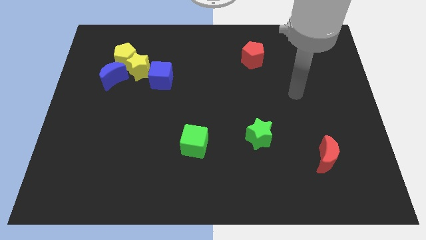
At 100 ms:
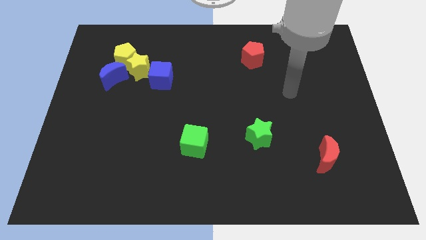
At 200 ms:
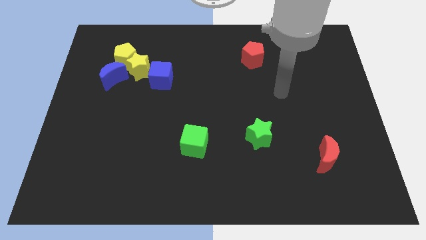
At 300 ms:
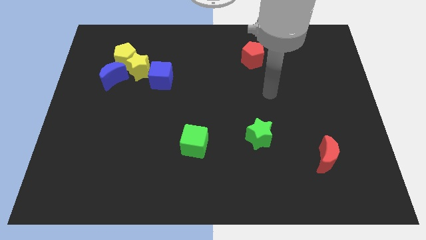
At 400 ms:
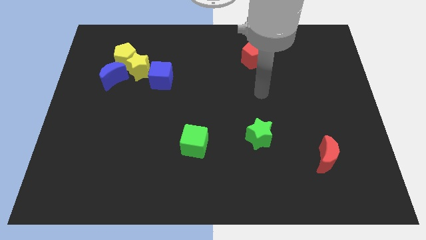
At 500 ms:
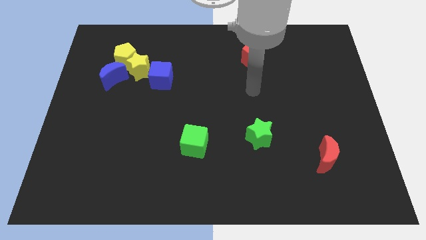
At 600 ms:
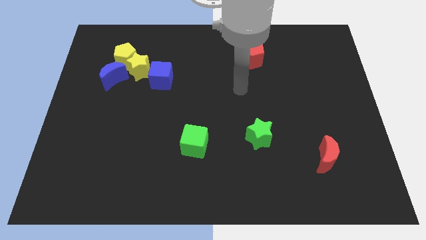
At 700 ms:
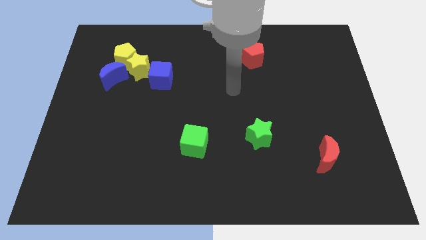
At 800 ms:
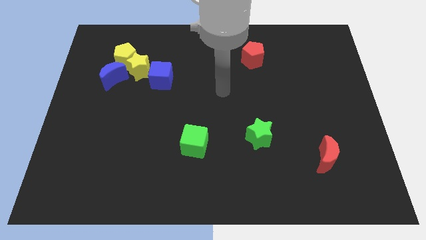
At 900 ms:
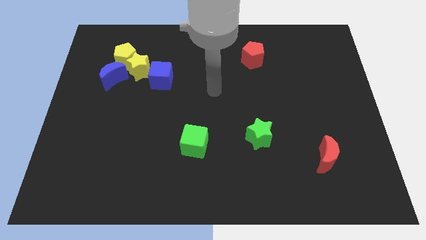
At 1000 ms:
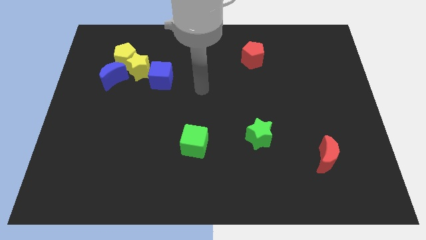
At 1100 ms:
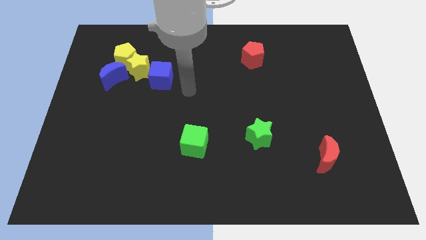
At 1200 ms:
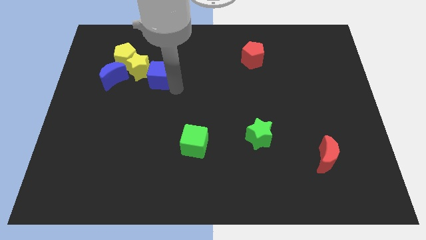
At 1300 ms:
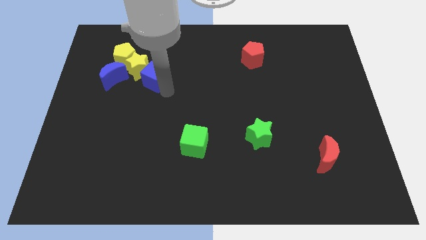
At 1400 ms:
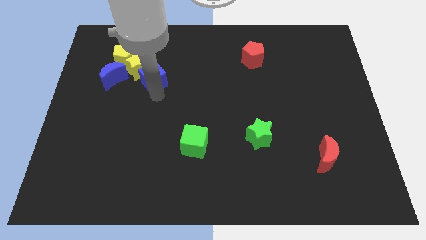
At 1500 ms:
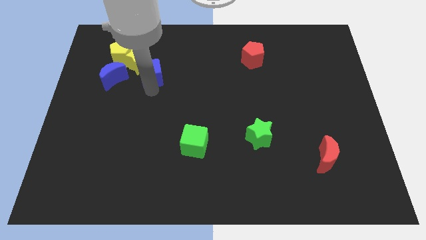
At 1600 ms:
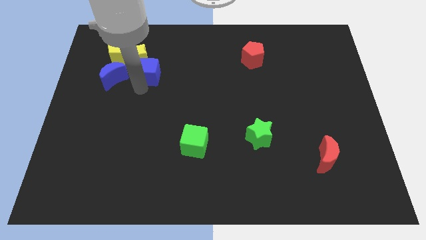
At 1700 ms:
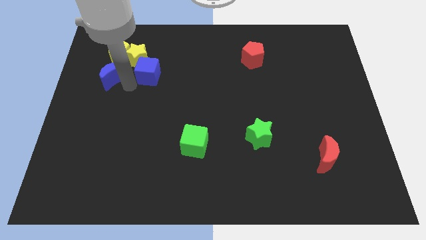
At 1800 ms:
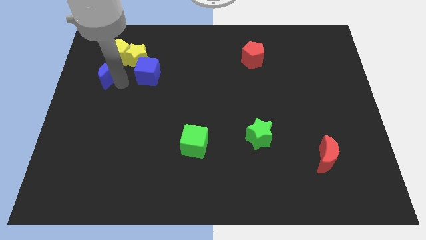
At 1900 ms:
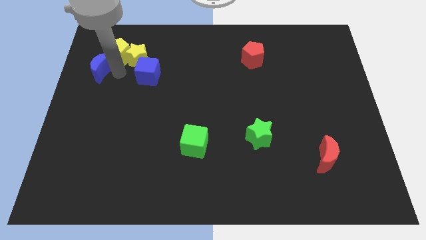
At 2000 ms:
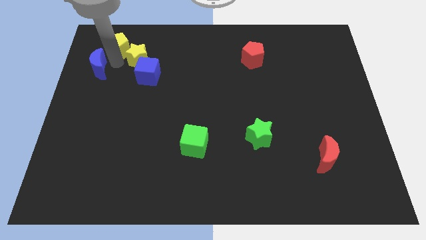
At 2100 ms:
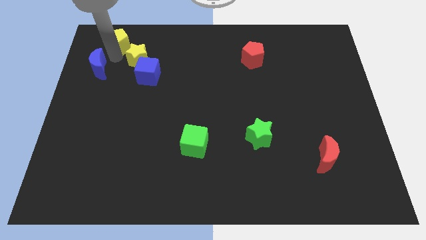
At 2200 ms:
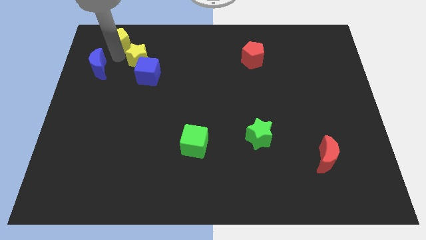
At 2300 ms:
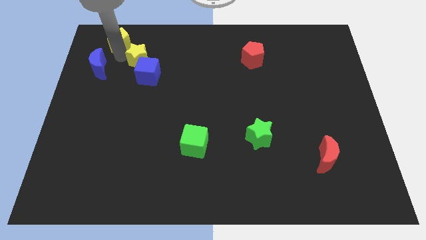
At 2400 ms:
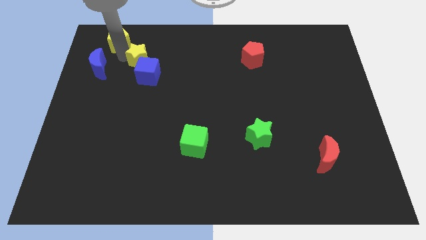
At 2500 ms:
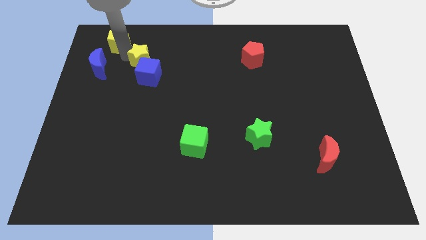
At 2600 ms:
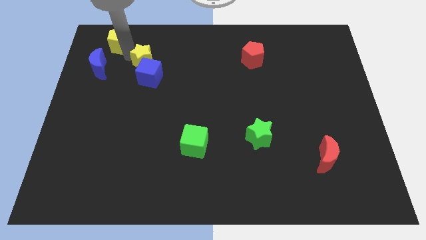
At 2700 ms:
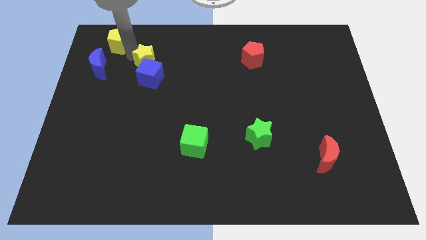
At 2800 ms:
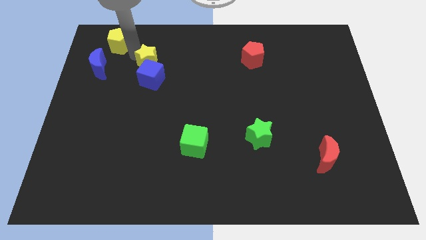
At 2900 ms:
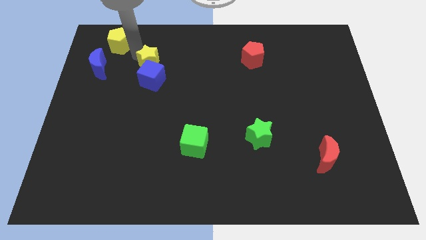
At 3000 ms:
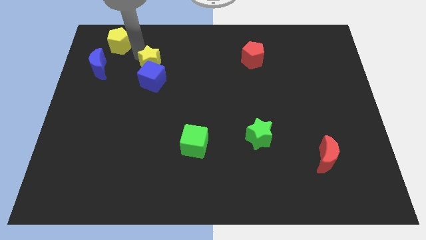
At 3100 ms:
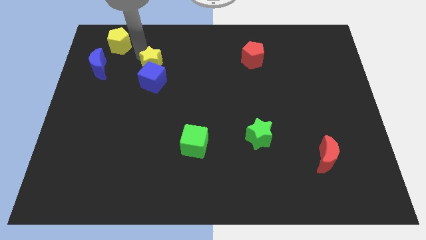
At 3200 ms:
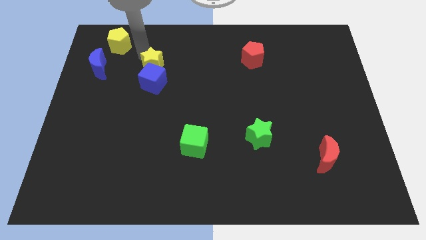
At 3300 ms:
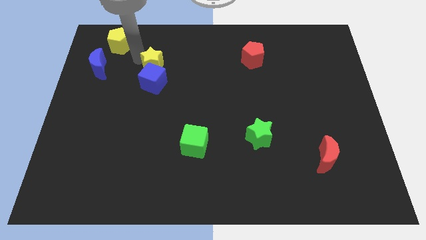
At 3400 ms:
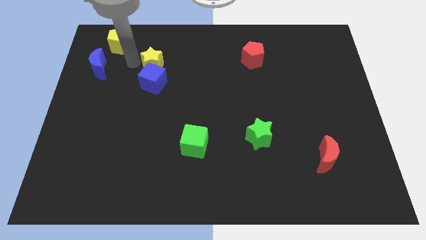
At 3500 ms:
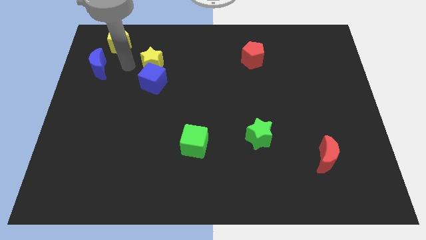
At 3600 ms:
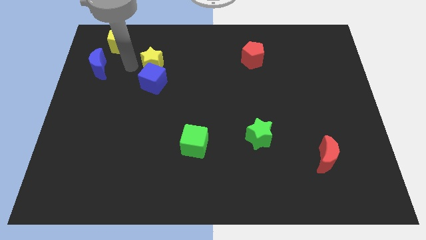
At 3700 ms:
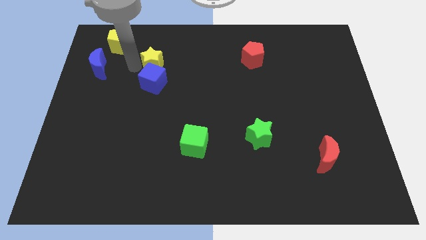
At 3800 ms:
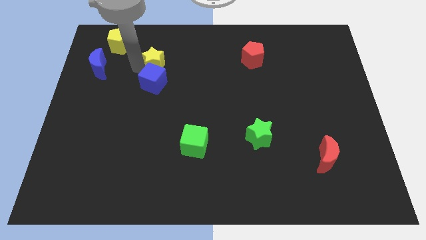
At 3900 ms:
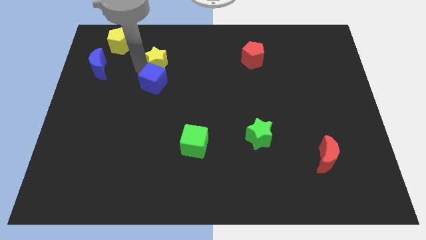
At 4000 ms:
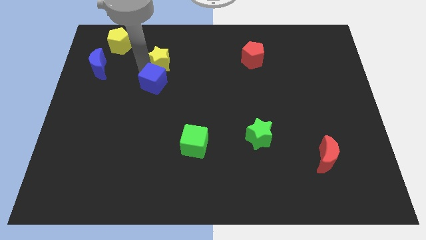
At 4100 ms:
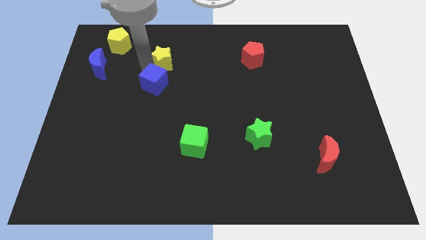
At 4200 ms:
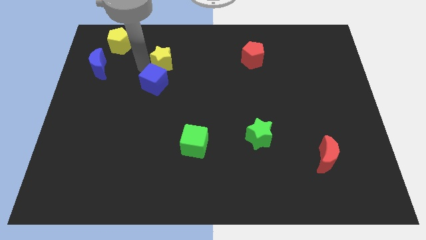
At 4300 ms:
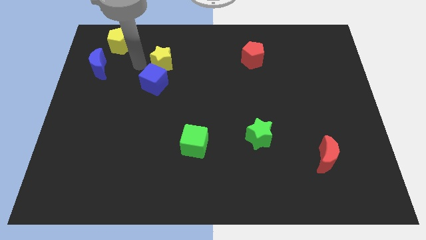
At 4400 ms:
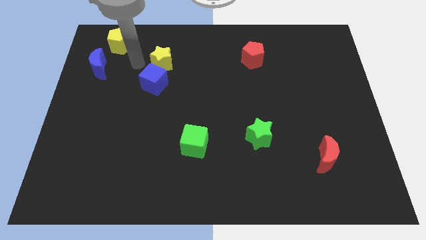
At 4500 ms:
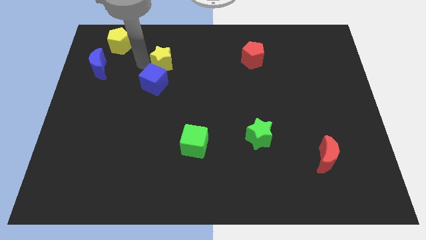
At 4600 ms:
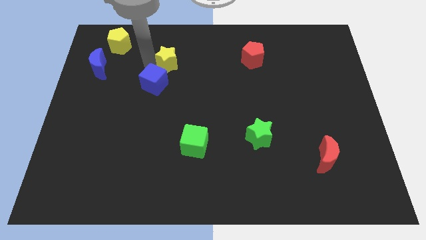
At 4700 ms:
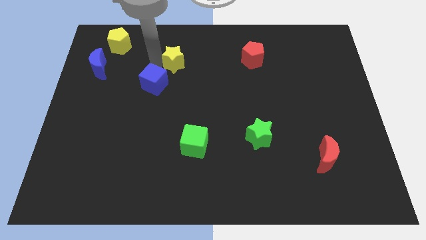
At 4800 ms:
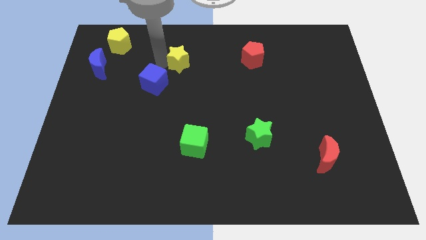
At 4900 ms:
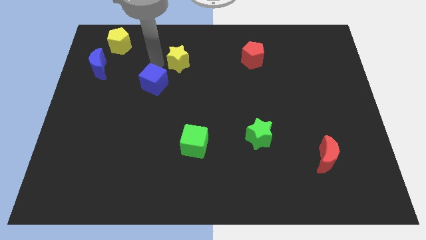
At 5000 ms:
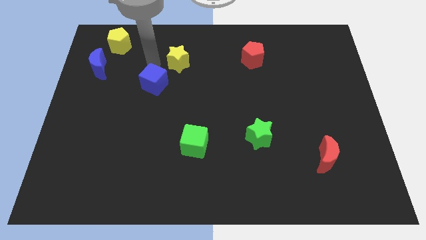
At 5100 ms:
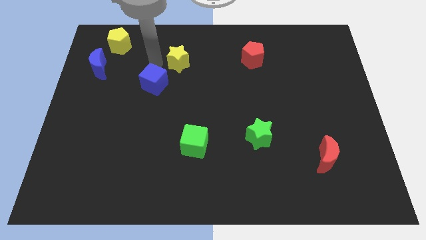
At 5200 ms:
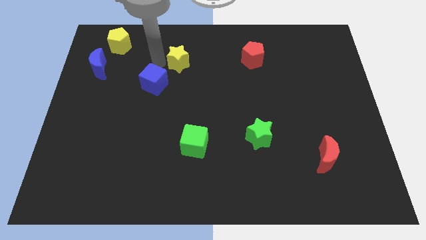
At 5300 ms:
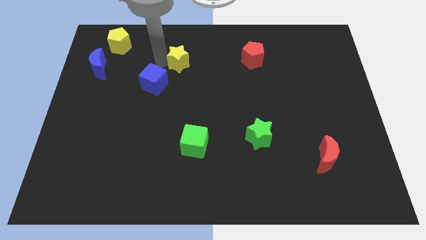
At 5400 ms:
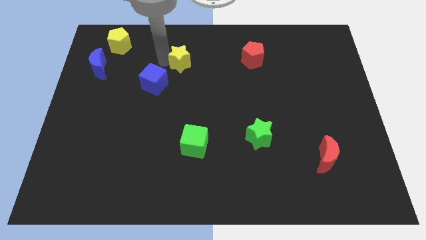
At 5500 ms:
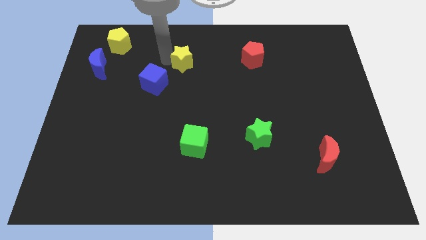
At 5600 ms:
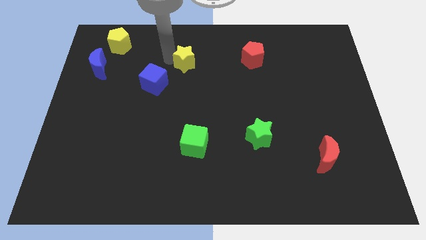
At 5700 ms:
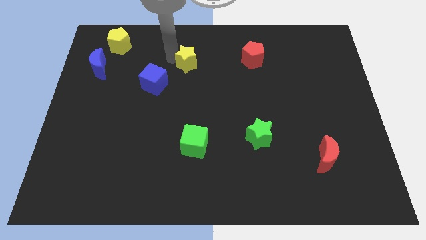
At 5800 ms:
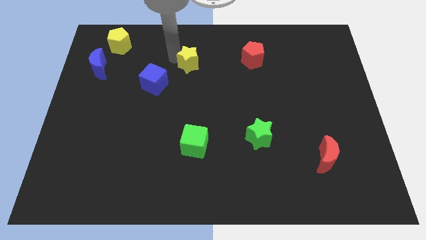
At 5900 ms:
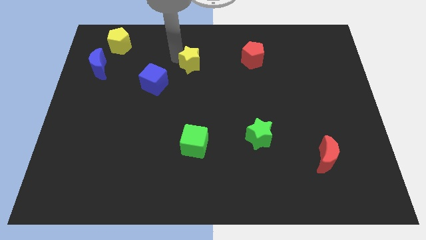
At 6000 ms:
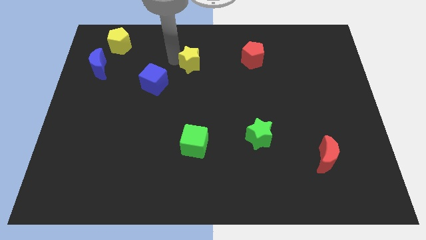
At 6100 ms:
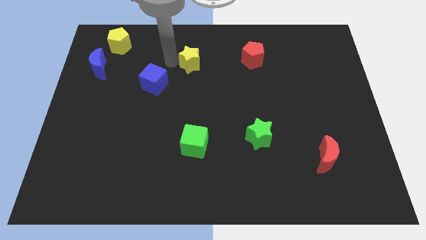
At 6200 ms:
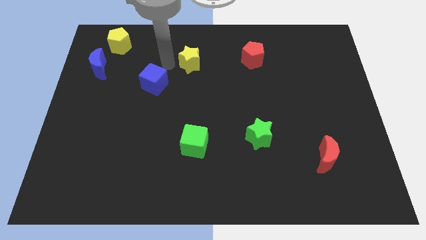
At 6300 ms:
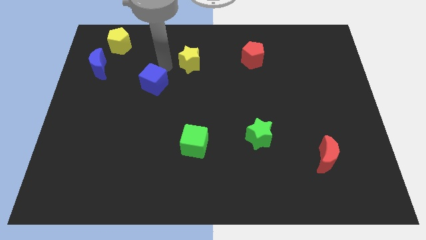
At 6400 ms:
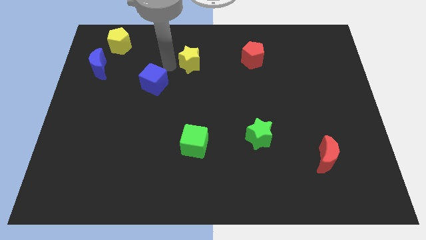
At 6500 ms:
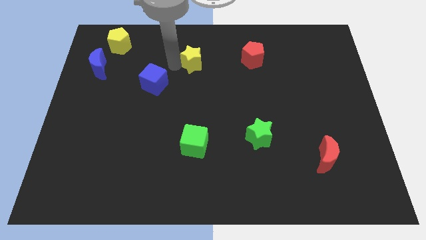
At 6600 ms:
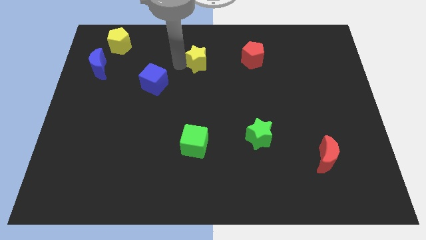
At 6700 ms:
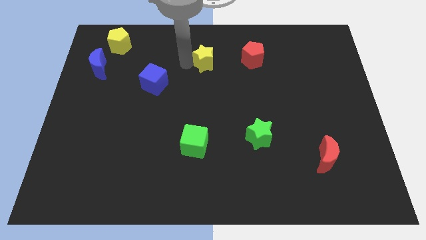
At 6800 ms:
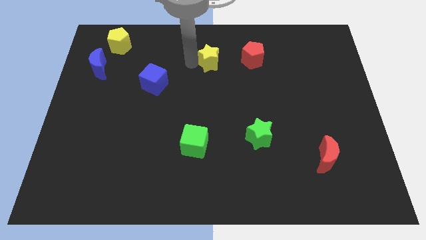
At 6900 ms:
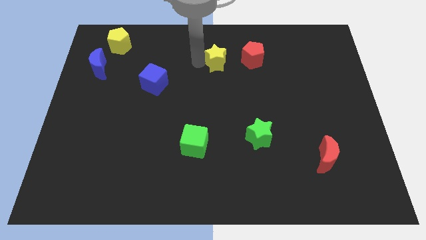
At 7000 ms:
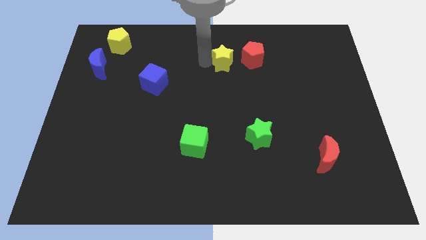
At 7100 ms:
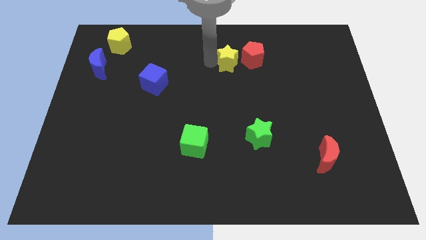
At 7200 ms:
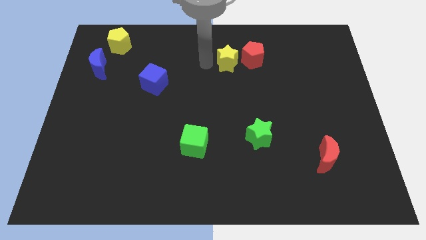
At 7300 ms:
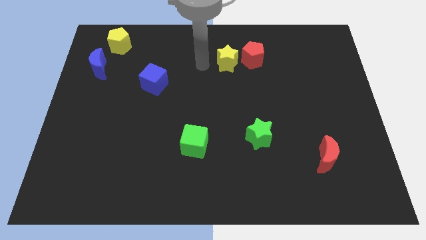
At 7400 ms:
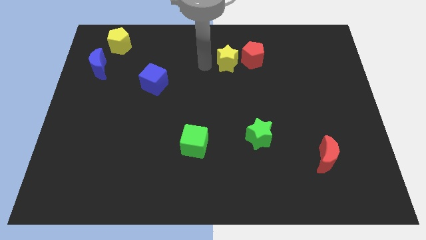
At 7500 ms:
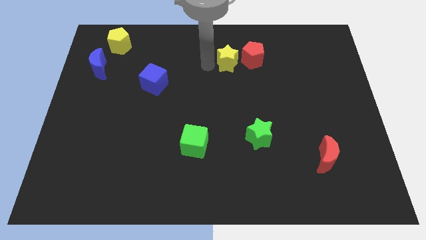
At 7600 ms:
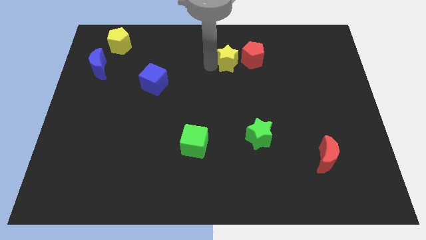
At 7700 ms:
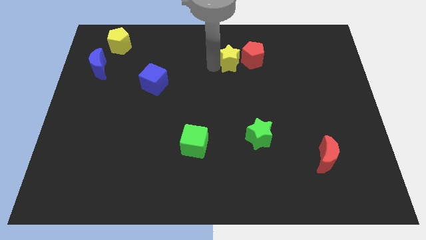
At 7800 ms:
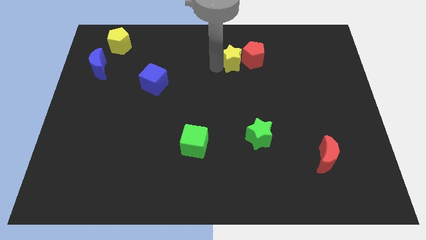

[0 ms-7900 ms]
slide the yellow star close to the red pentagon
